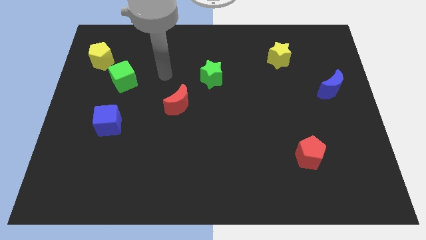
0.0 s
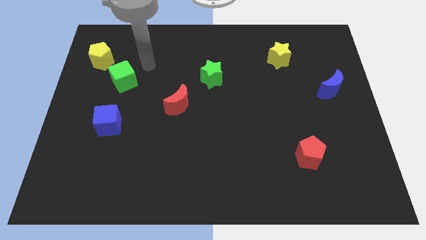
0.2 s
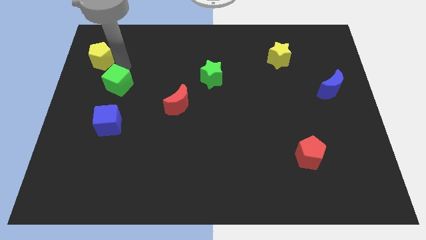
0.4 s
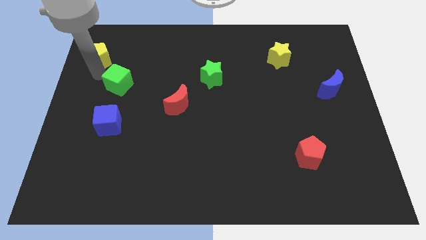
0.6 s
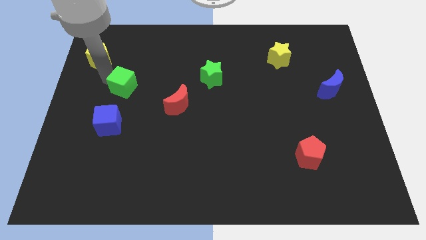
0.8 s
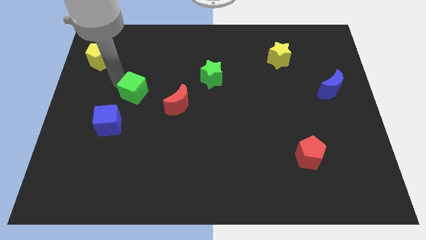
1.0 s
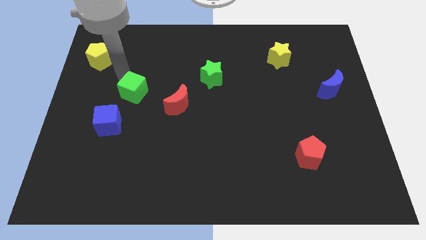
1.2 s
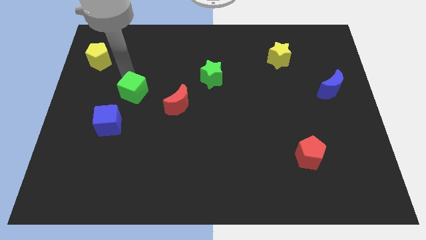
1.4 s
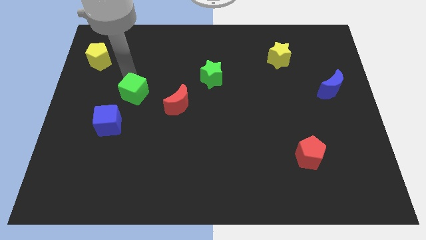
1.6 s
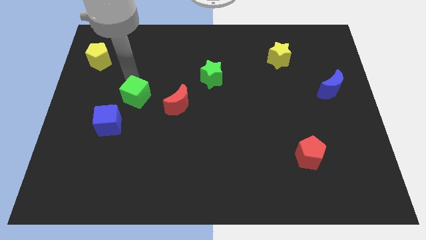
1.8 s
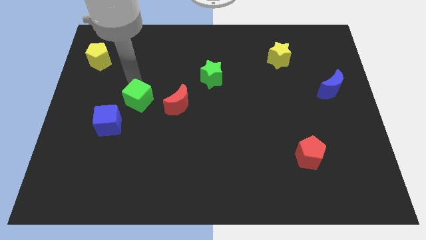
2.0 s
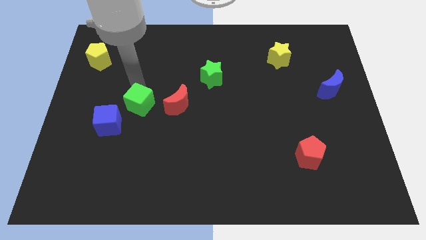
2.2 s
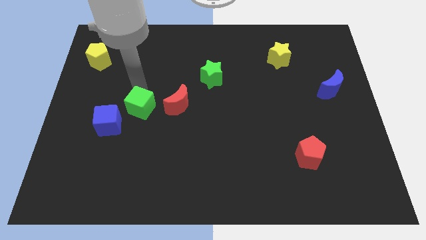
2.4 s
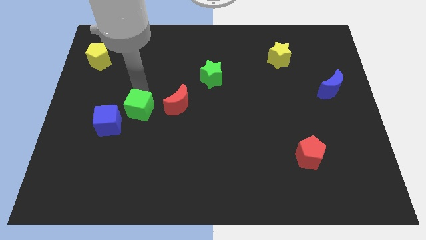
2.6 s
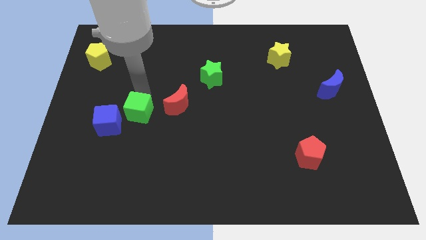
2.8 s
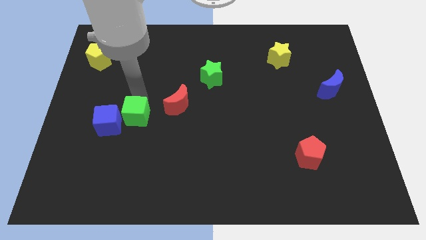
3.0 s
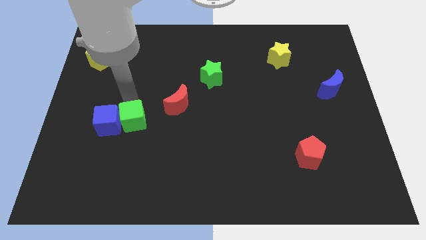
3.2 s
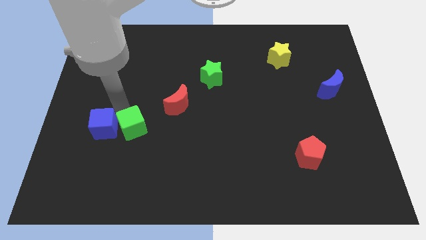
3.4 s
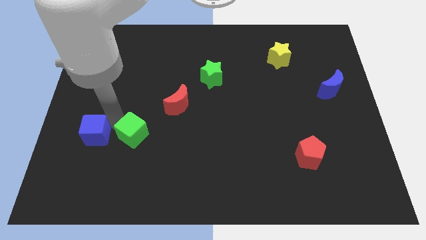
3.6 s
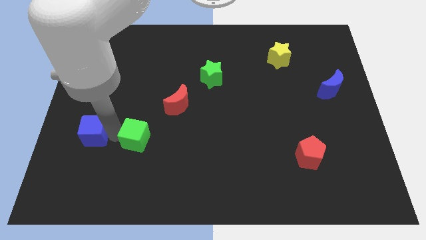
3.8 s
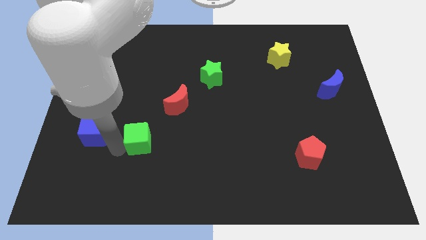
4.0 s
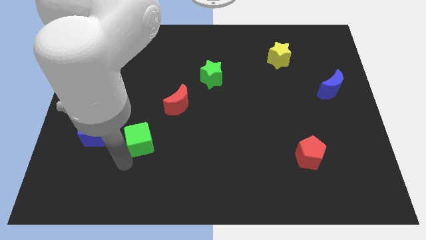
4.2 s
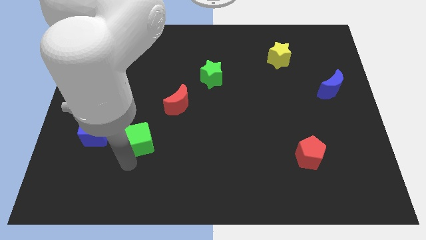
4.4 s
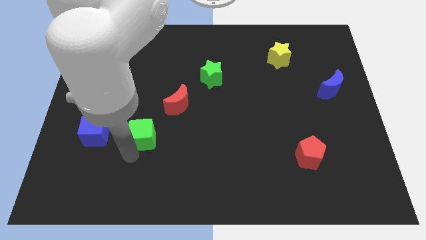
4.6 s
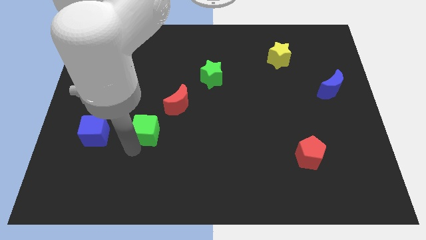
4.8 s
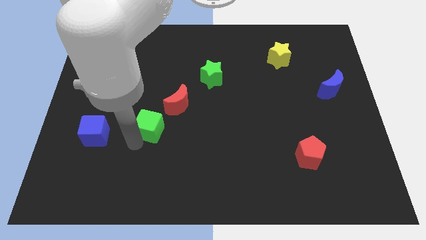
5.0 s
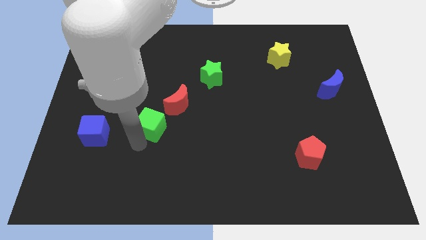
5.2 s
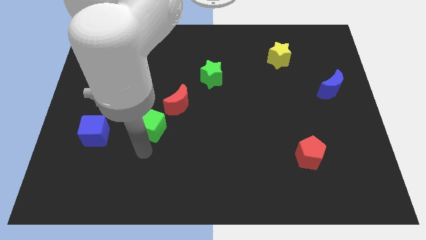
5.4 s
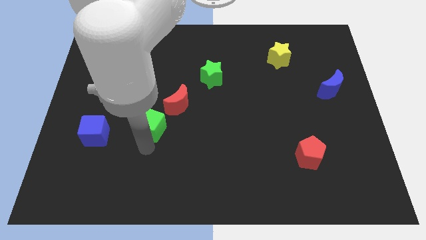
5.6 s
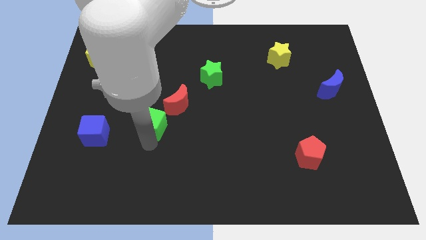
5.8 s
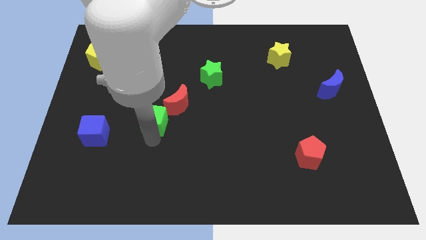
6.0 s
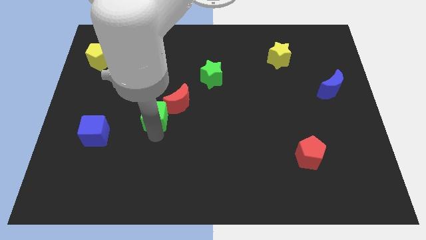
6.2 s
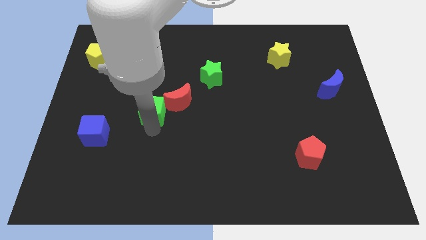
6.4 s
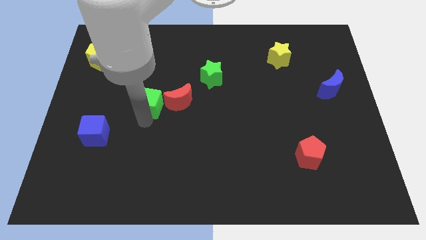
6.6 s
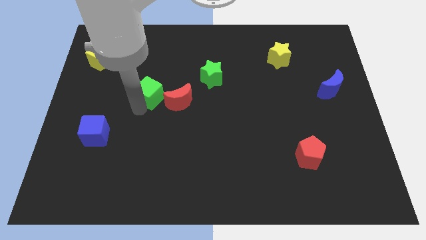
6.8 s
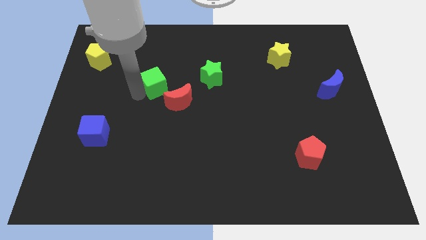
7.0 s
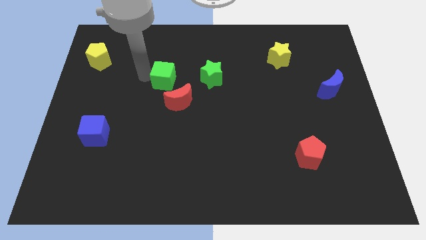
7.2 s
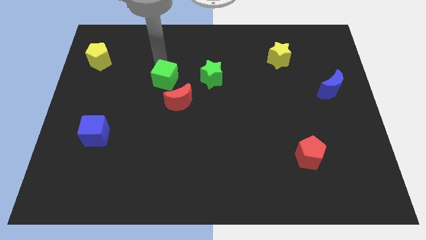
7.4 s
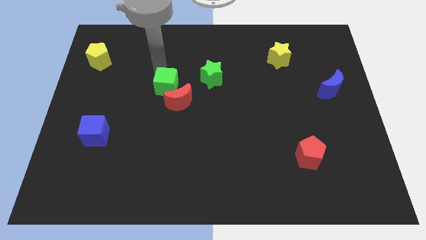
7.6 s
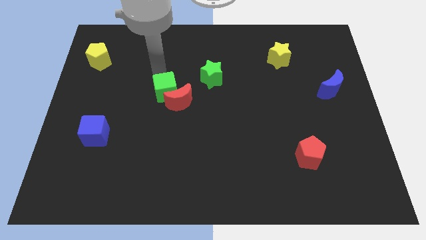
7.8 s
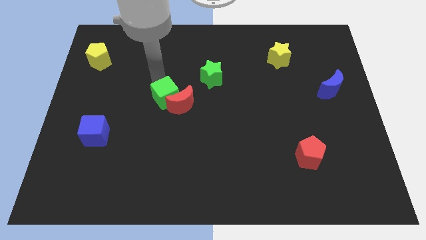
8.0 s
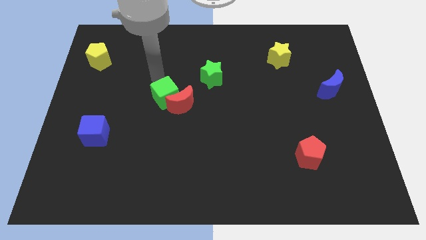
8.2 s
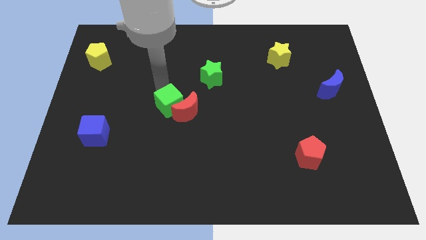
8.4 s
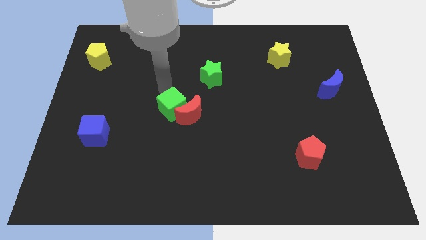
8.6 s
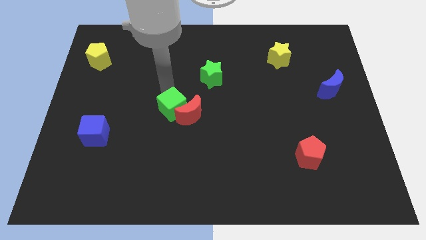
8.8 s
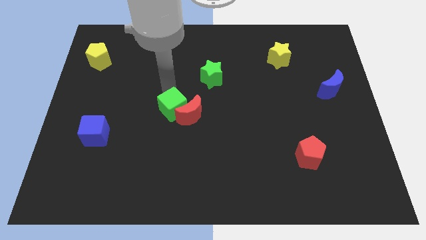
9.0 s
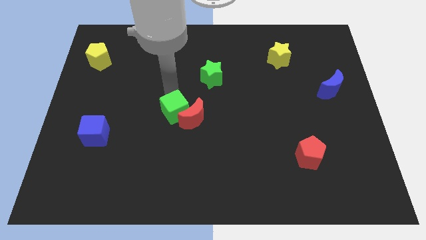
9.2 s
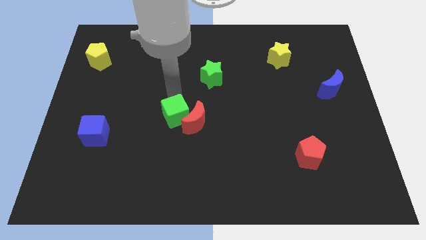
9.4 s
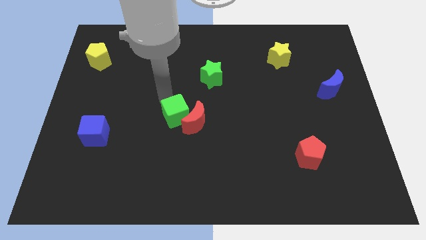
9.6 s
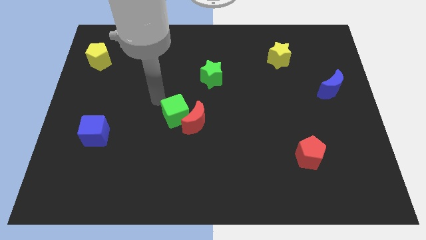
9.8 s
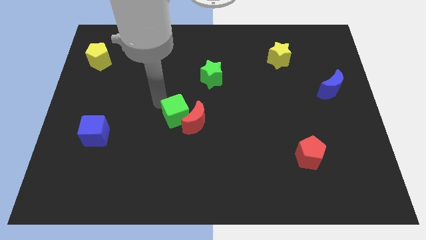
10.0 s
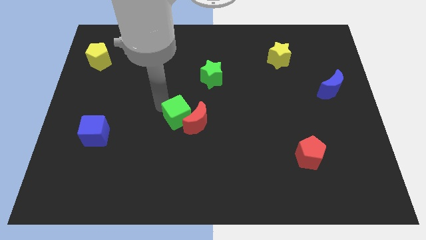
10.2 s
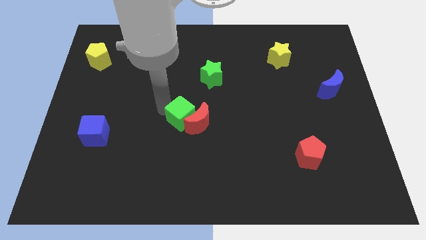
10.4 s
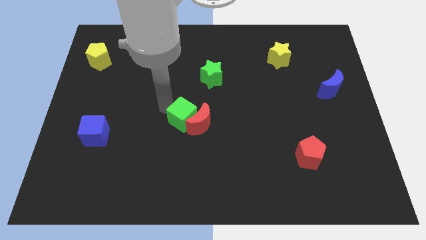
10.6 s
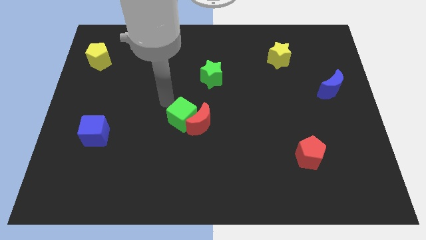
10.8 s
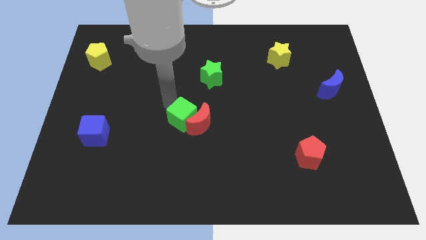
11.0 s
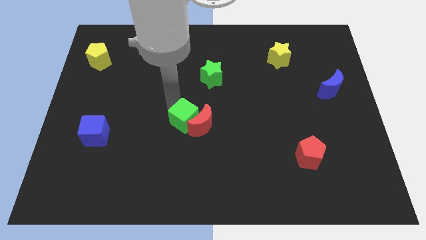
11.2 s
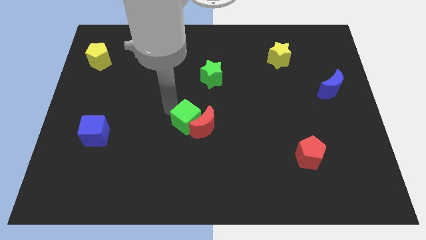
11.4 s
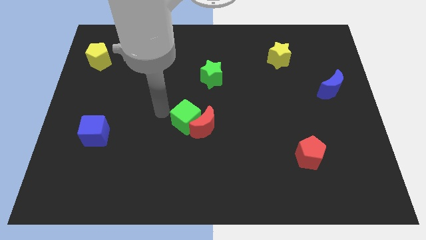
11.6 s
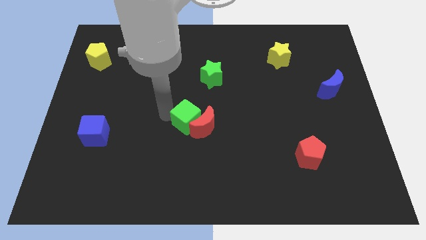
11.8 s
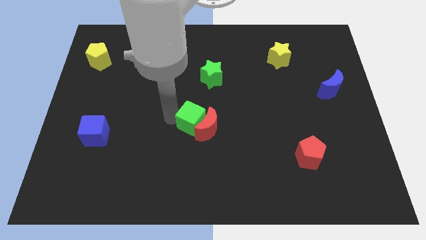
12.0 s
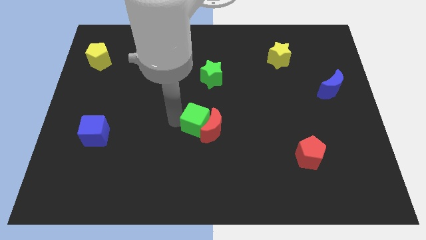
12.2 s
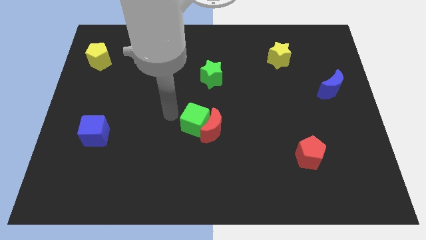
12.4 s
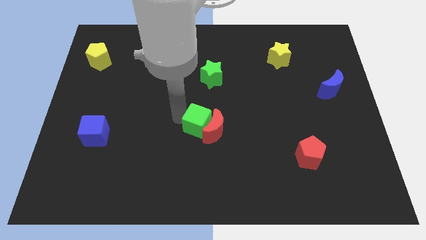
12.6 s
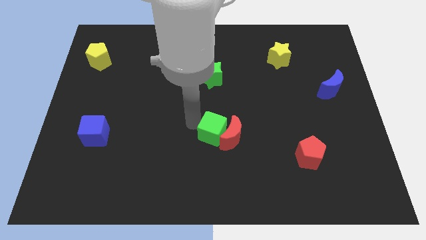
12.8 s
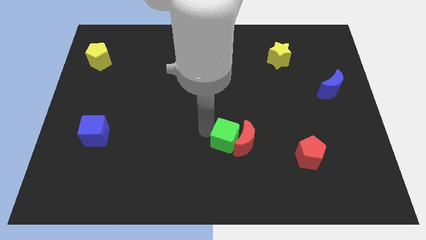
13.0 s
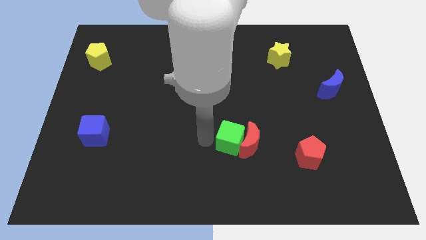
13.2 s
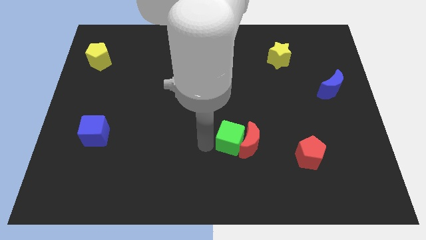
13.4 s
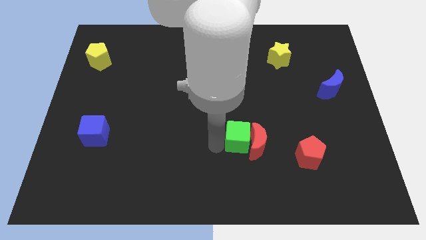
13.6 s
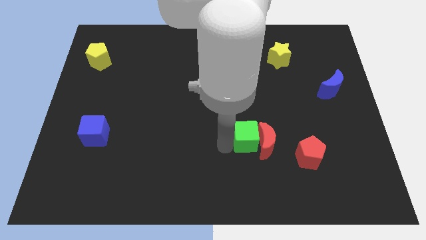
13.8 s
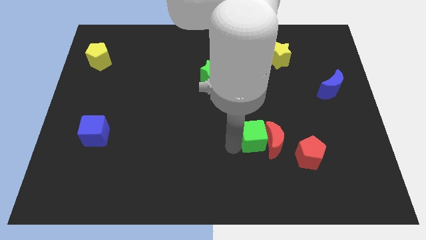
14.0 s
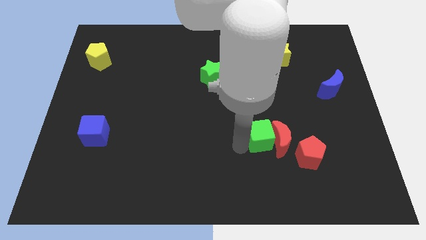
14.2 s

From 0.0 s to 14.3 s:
put the green cube to the top left of the red pentagon
